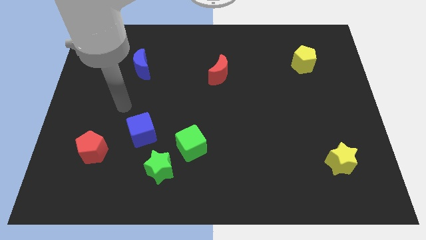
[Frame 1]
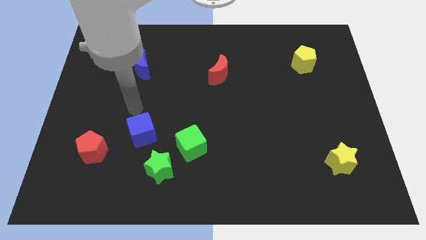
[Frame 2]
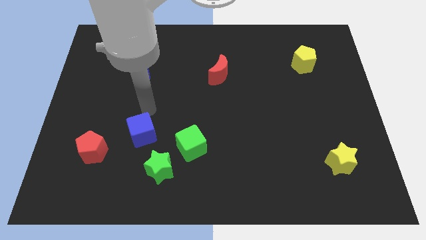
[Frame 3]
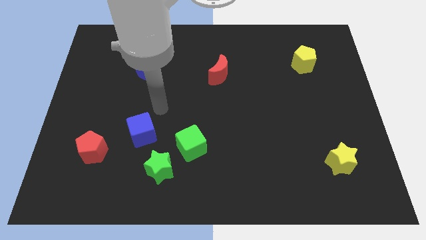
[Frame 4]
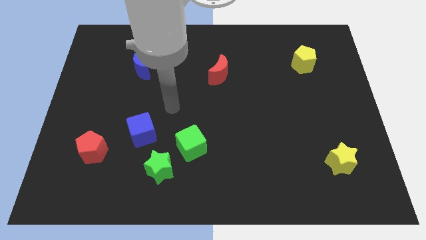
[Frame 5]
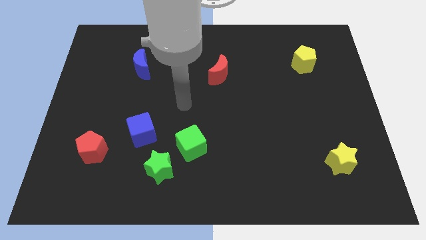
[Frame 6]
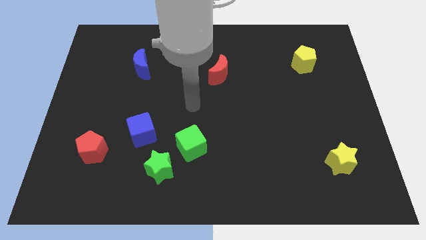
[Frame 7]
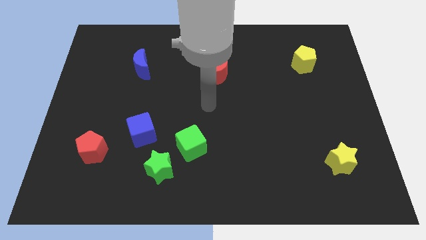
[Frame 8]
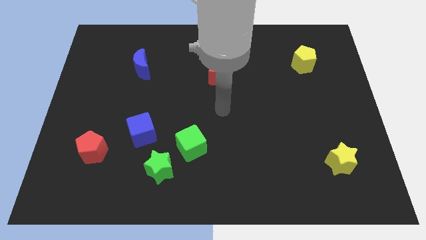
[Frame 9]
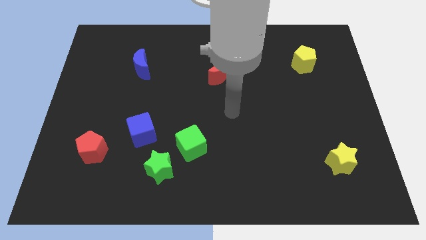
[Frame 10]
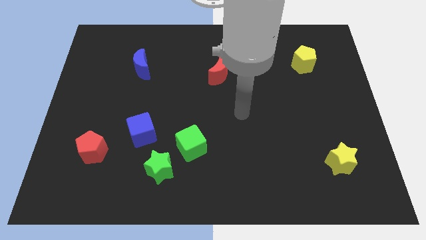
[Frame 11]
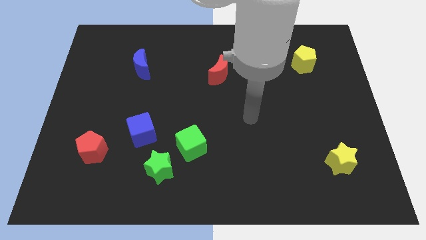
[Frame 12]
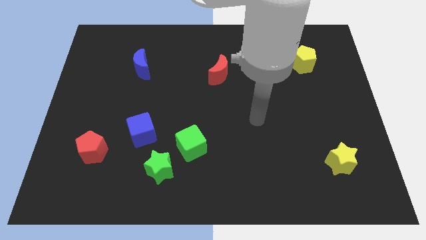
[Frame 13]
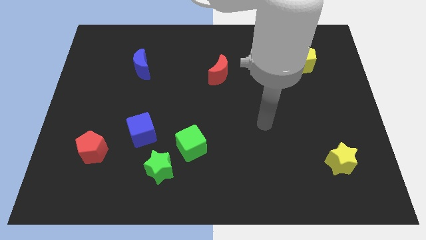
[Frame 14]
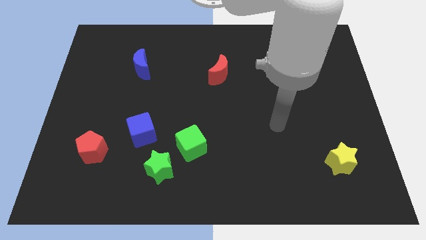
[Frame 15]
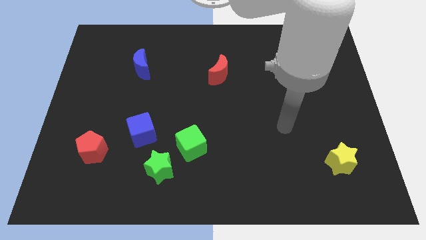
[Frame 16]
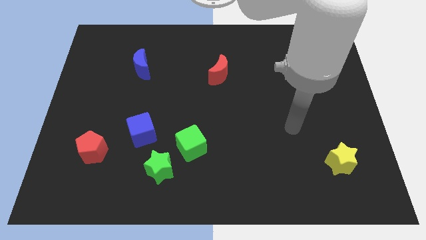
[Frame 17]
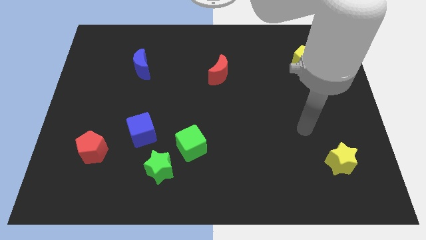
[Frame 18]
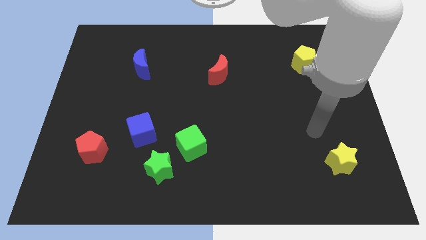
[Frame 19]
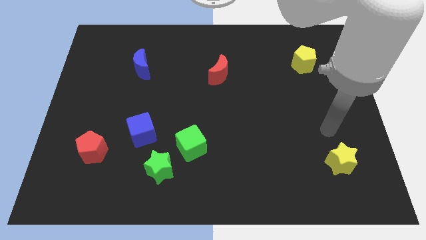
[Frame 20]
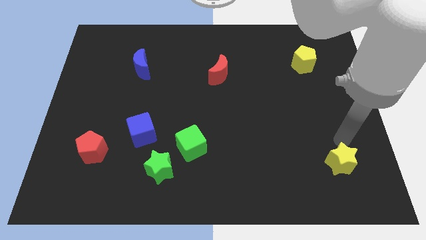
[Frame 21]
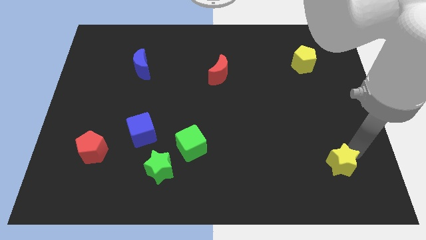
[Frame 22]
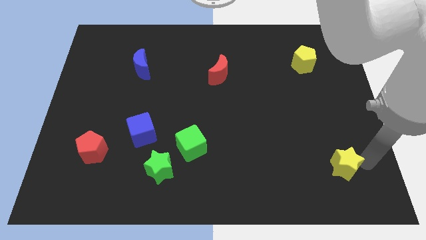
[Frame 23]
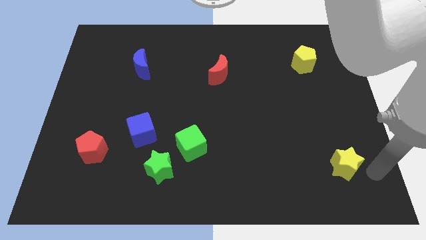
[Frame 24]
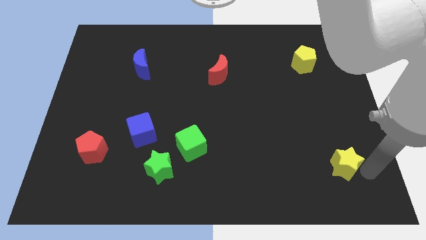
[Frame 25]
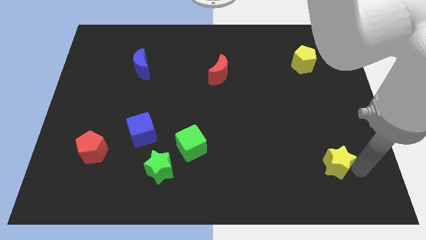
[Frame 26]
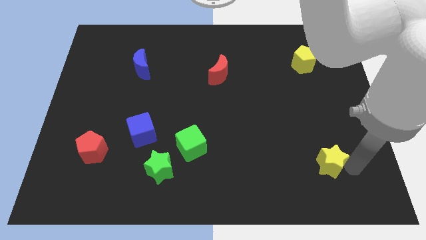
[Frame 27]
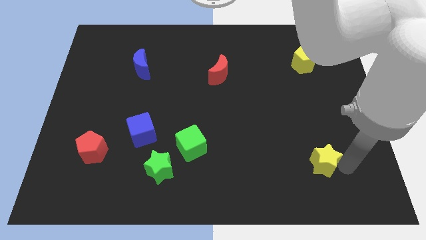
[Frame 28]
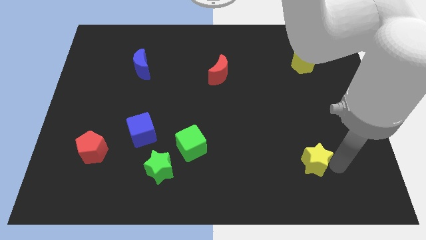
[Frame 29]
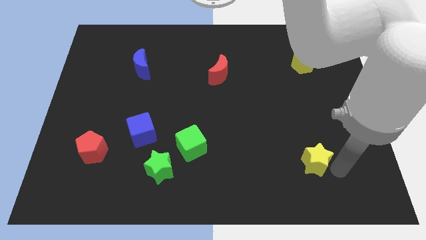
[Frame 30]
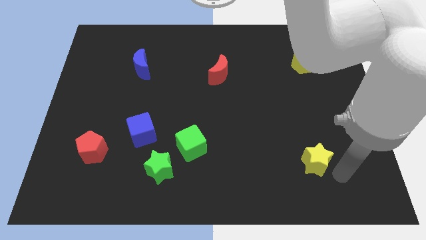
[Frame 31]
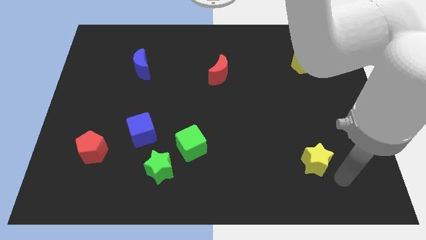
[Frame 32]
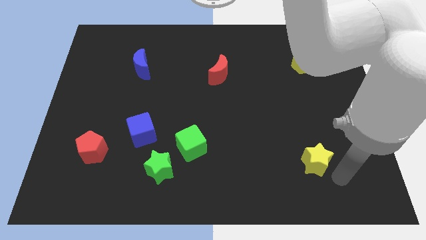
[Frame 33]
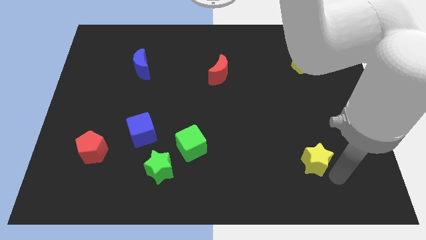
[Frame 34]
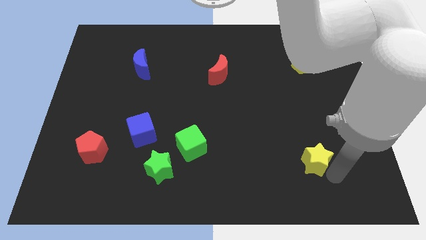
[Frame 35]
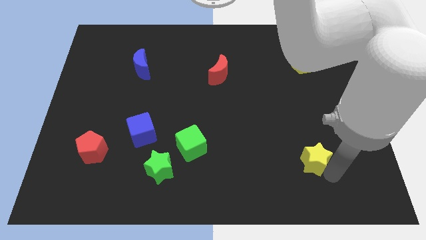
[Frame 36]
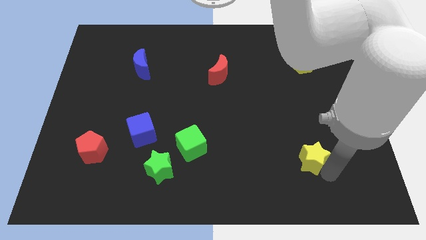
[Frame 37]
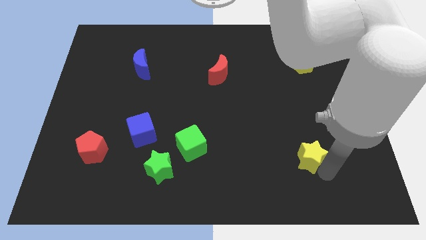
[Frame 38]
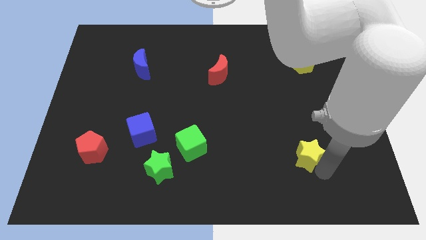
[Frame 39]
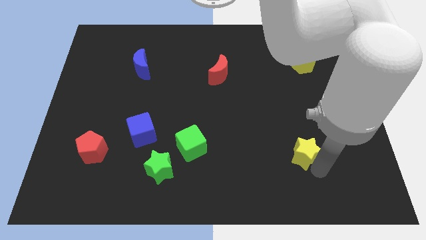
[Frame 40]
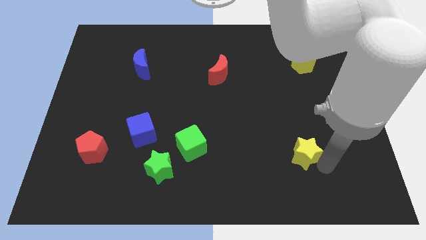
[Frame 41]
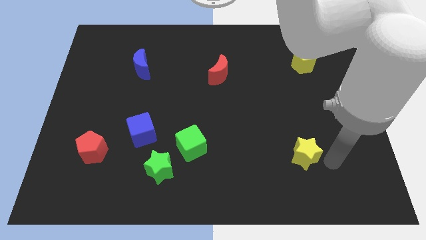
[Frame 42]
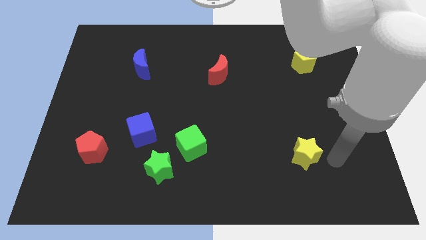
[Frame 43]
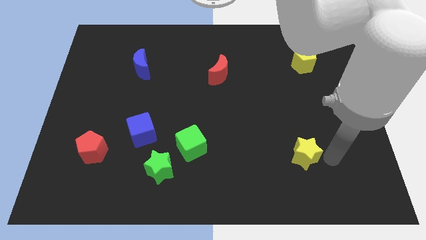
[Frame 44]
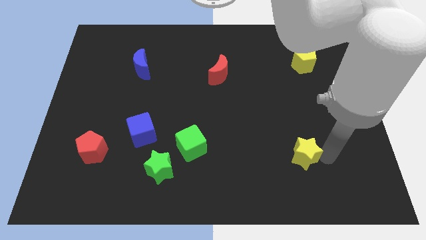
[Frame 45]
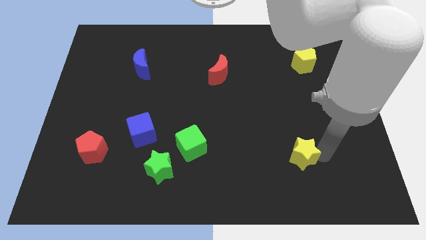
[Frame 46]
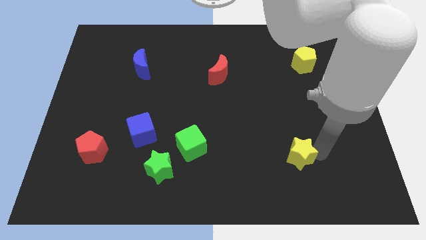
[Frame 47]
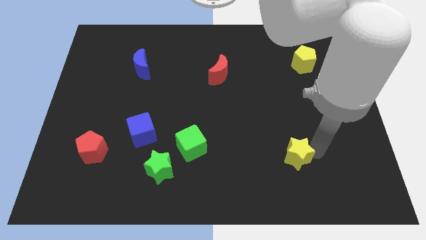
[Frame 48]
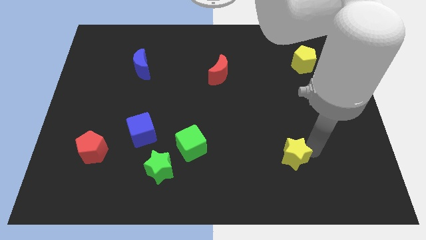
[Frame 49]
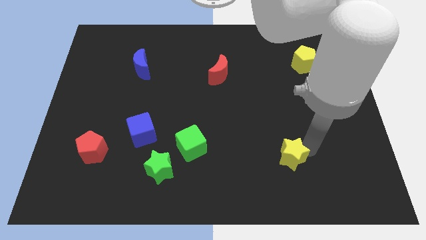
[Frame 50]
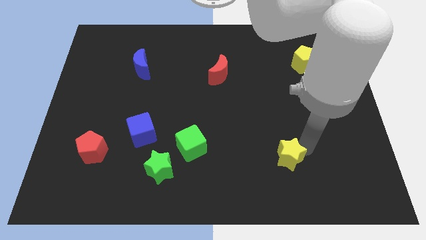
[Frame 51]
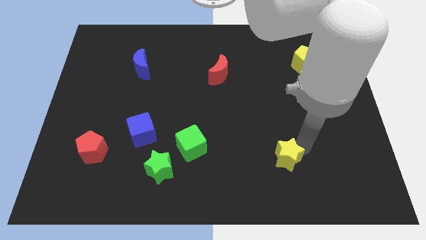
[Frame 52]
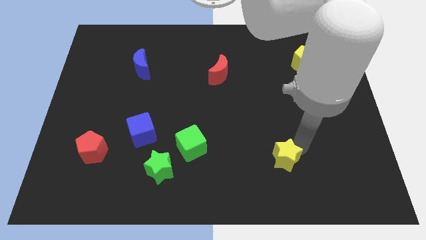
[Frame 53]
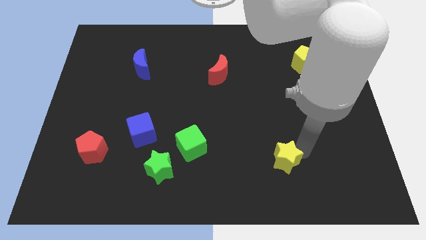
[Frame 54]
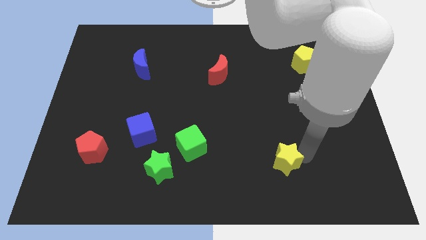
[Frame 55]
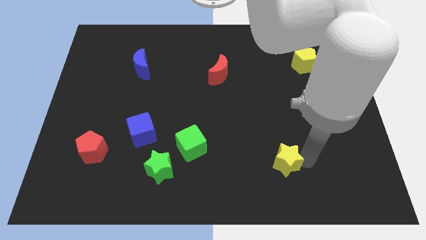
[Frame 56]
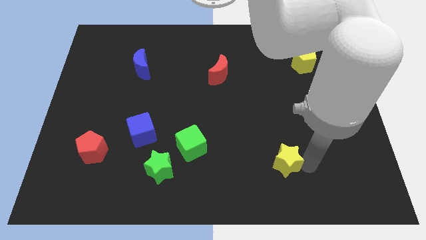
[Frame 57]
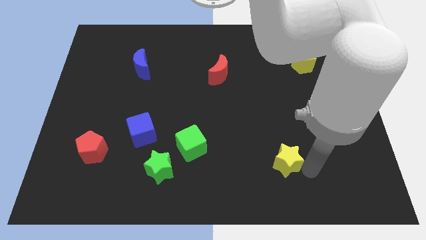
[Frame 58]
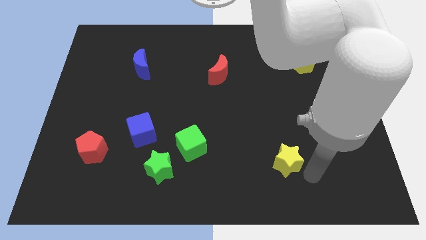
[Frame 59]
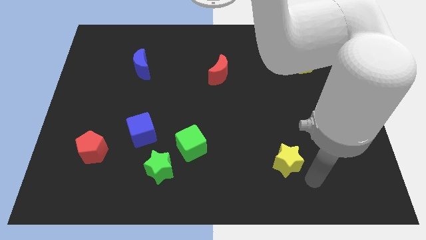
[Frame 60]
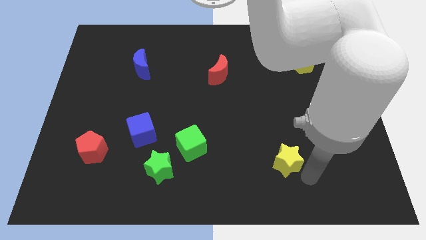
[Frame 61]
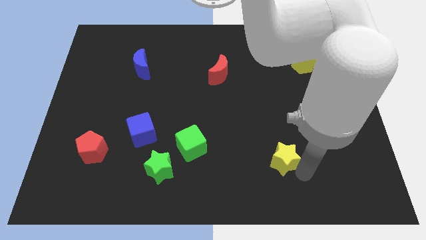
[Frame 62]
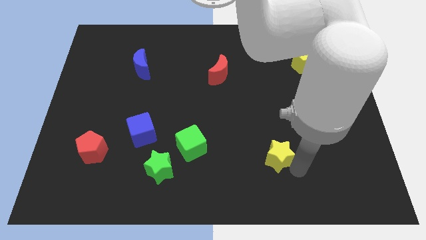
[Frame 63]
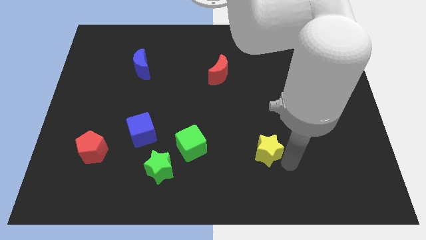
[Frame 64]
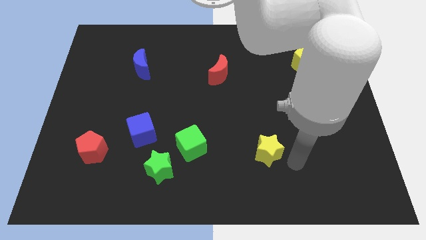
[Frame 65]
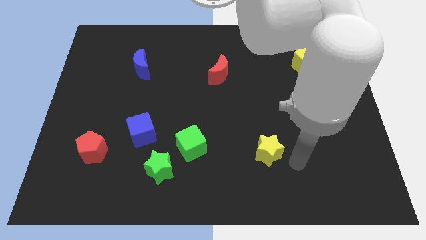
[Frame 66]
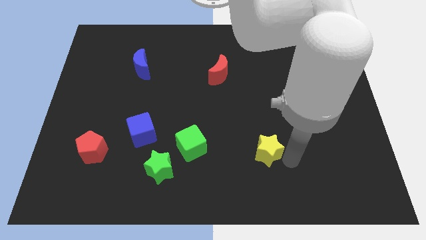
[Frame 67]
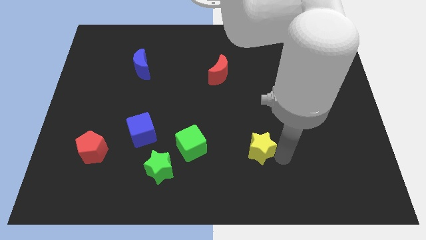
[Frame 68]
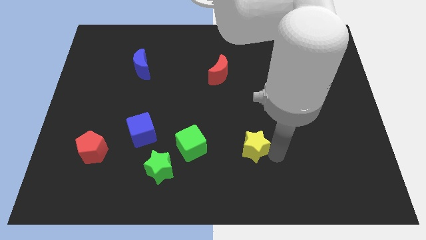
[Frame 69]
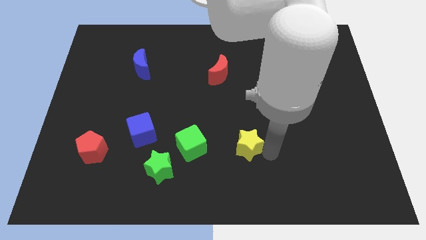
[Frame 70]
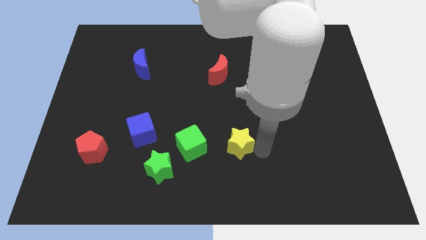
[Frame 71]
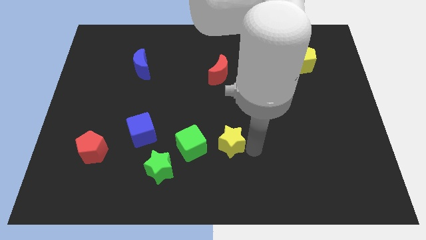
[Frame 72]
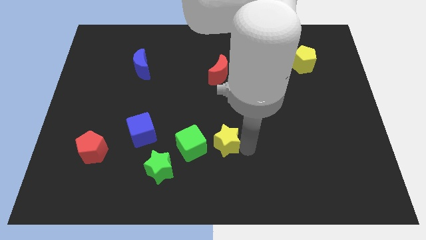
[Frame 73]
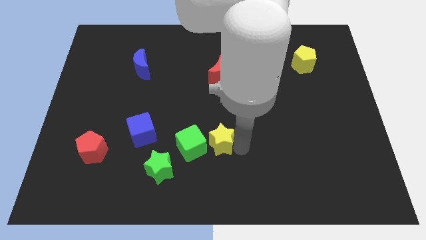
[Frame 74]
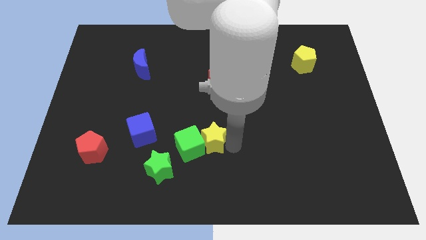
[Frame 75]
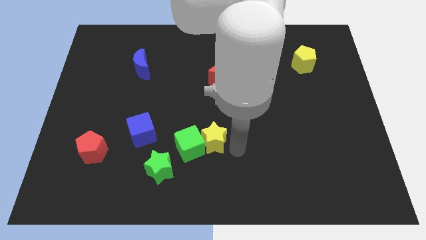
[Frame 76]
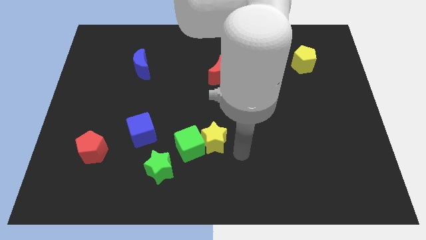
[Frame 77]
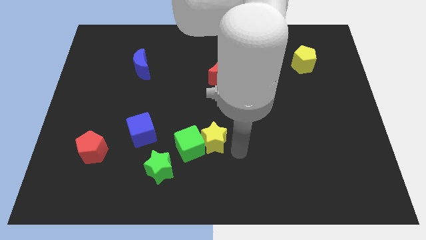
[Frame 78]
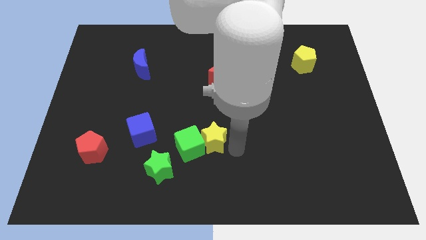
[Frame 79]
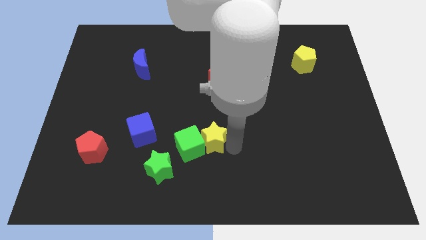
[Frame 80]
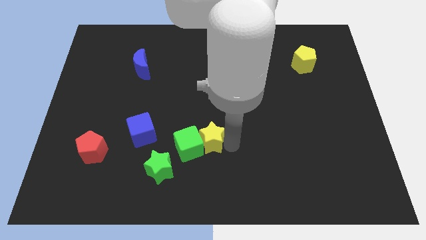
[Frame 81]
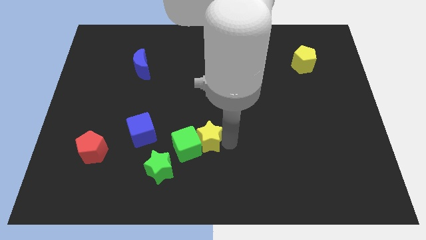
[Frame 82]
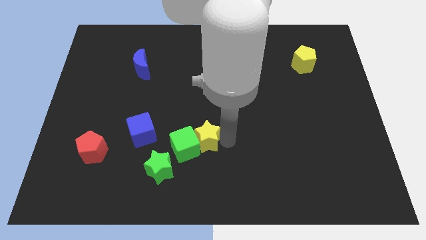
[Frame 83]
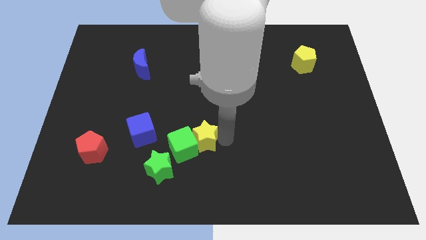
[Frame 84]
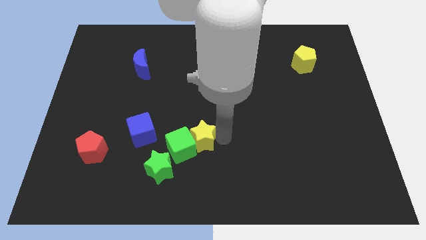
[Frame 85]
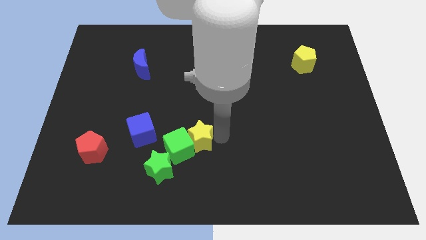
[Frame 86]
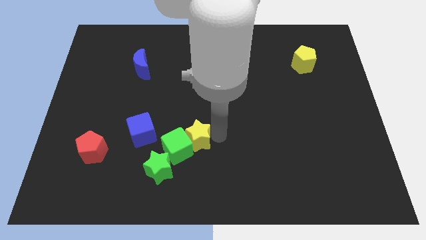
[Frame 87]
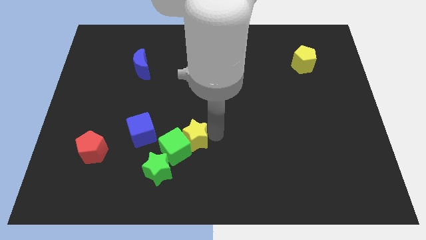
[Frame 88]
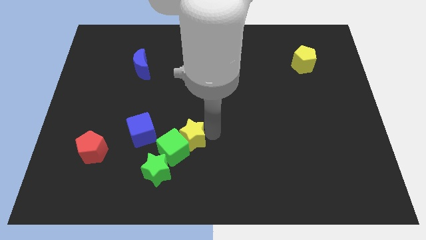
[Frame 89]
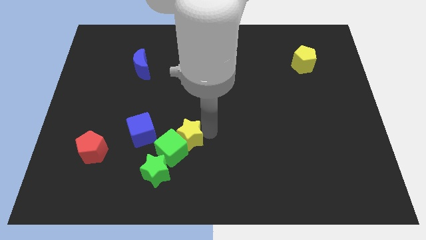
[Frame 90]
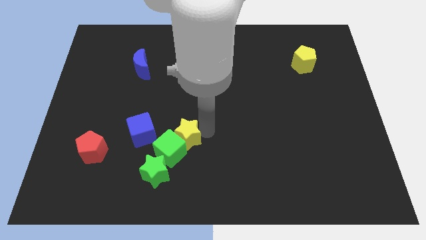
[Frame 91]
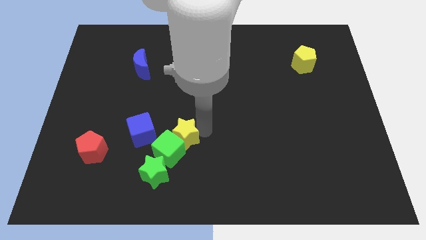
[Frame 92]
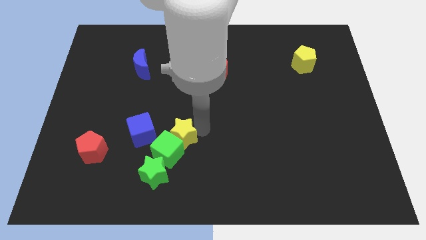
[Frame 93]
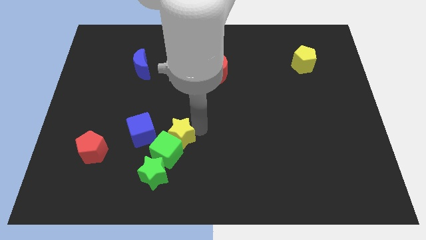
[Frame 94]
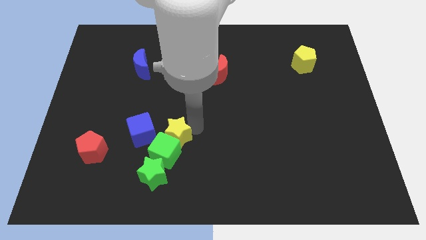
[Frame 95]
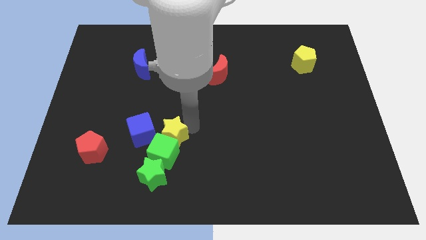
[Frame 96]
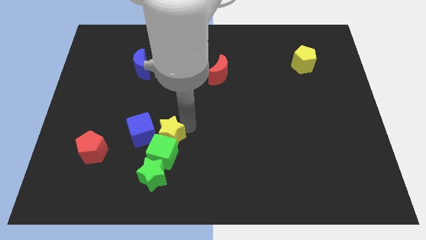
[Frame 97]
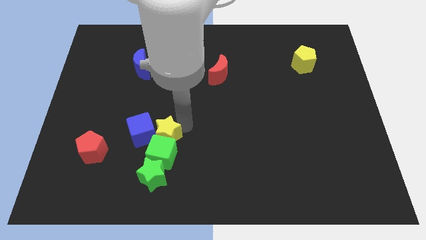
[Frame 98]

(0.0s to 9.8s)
put the yellow star next to the blue cube
